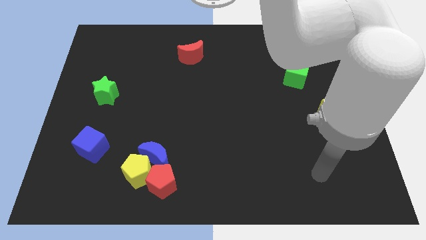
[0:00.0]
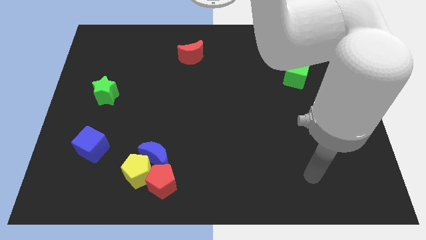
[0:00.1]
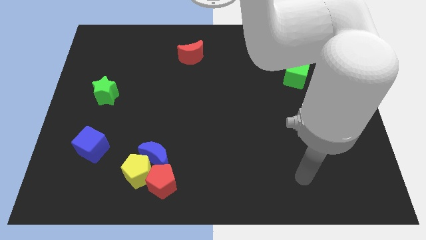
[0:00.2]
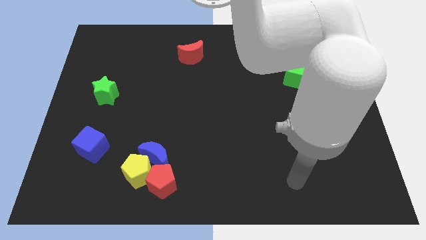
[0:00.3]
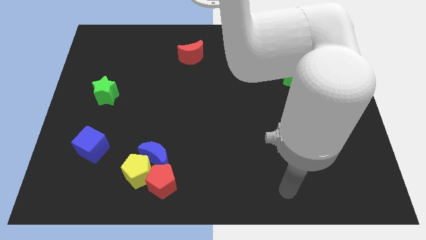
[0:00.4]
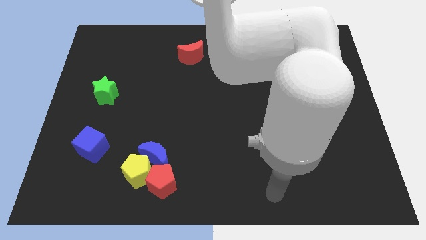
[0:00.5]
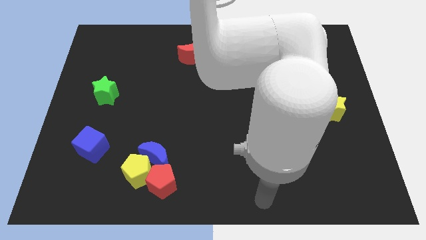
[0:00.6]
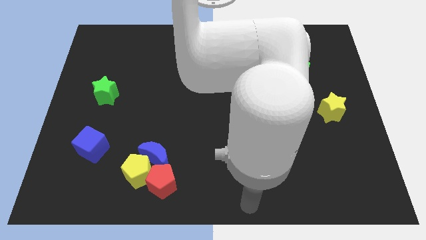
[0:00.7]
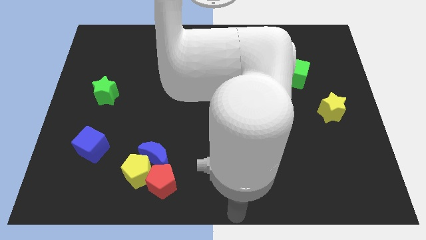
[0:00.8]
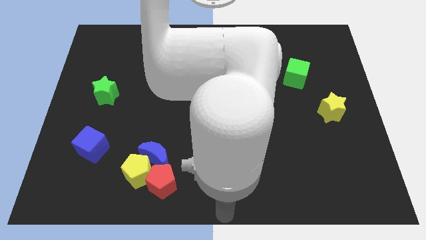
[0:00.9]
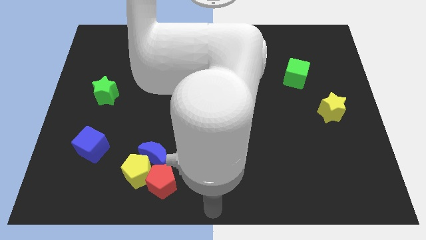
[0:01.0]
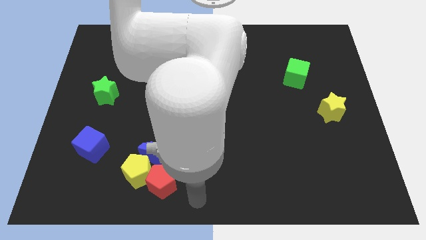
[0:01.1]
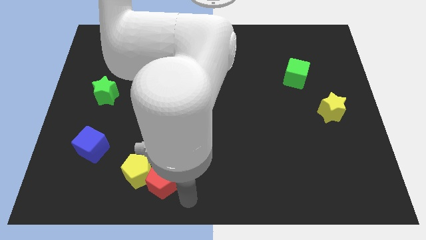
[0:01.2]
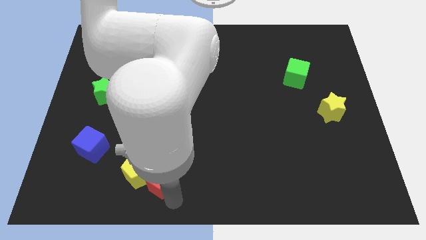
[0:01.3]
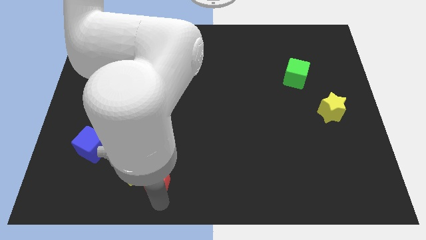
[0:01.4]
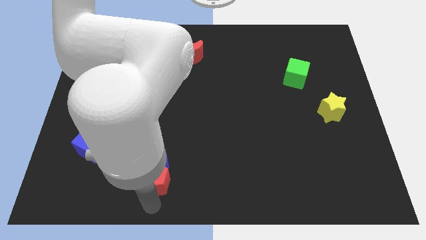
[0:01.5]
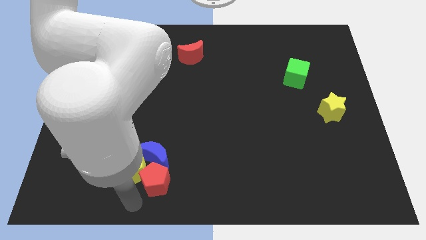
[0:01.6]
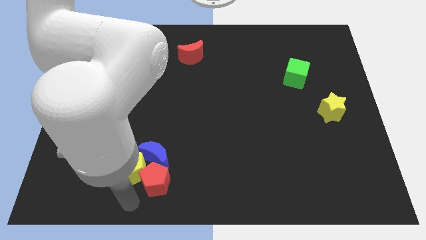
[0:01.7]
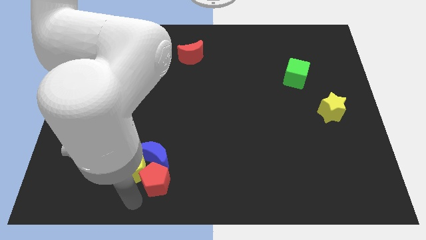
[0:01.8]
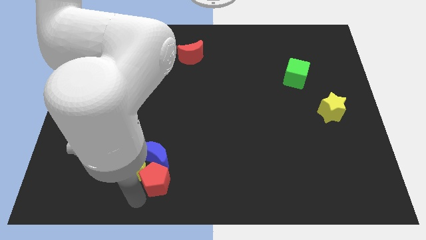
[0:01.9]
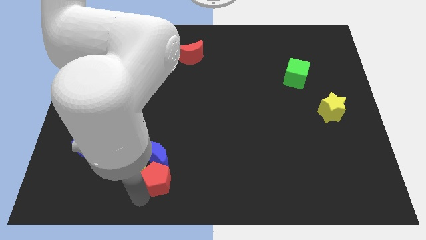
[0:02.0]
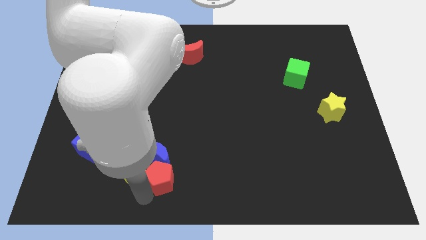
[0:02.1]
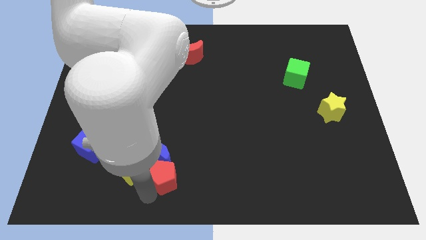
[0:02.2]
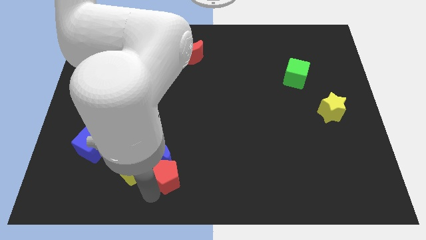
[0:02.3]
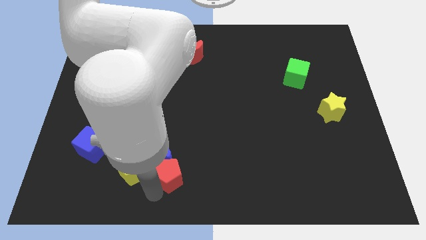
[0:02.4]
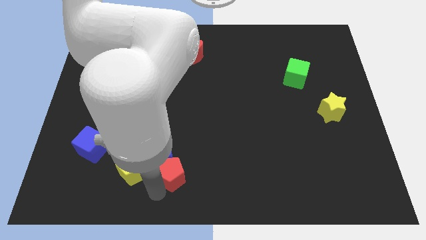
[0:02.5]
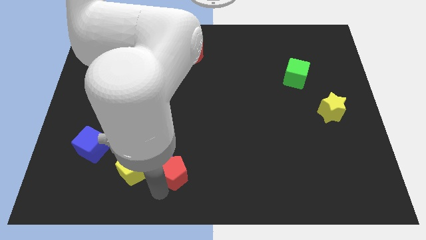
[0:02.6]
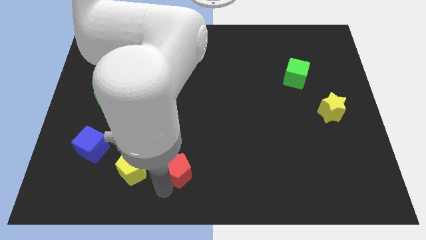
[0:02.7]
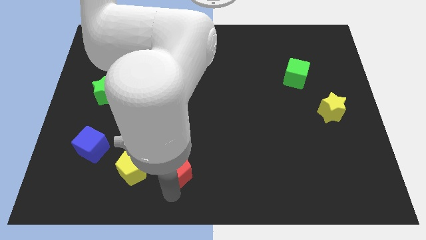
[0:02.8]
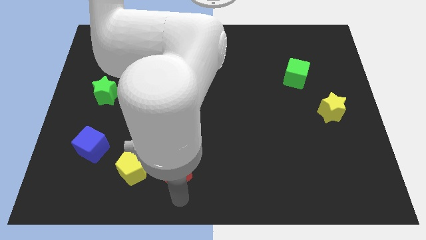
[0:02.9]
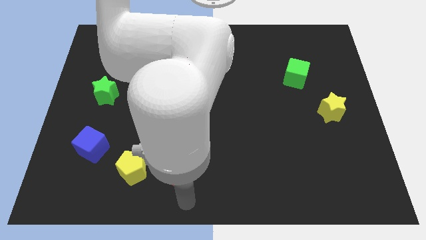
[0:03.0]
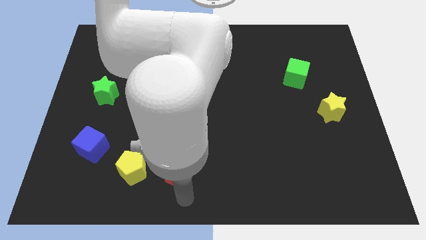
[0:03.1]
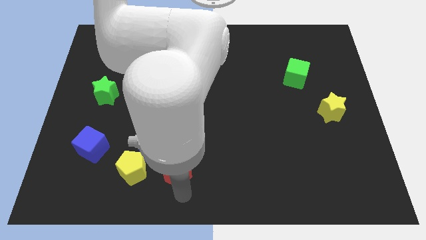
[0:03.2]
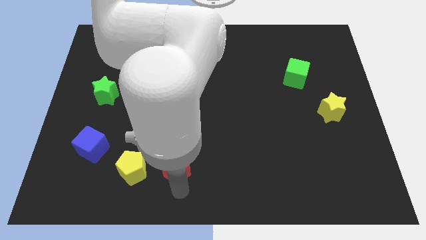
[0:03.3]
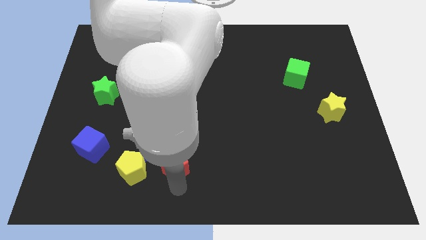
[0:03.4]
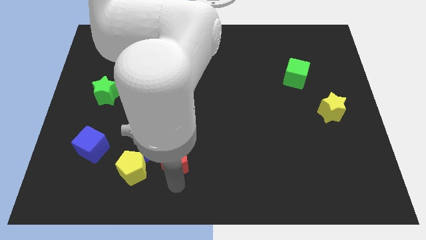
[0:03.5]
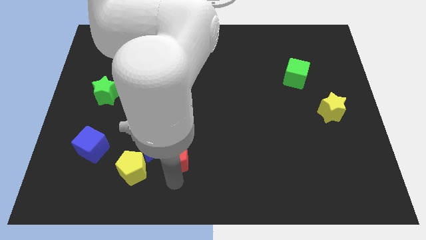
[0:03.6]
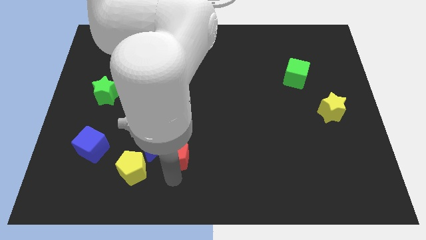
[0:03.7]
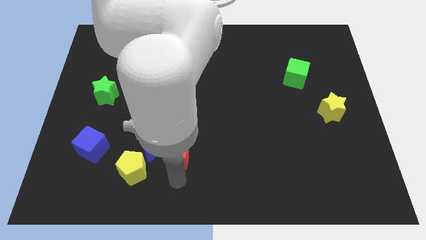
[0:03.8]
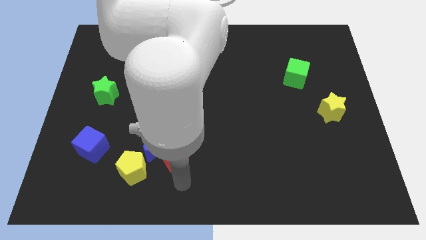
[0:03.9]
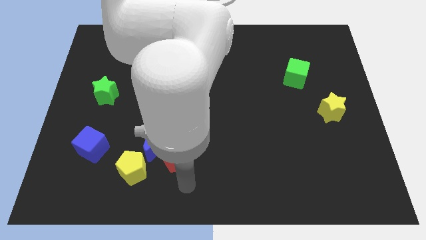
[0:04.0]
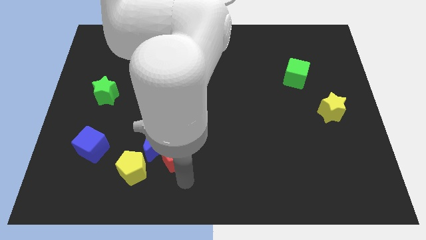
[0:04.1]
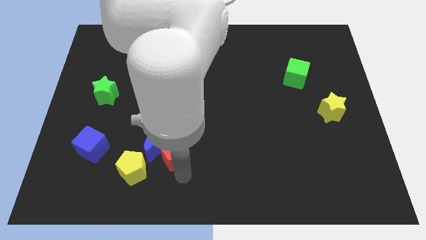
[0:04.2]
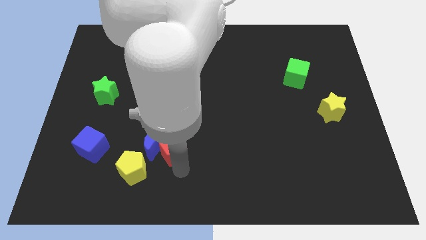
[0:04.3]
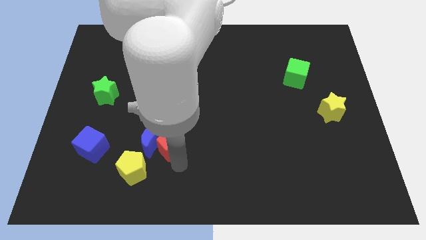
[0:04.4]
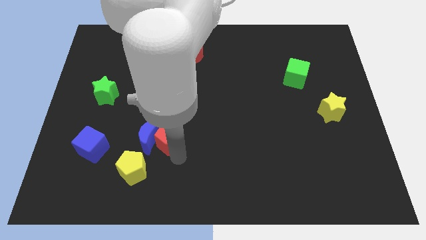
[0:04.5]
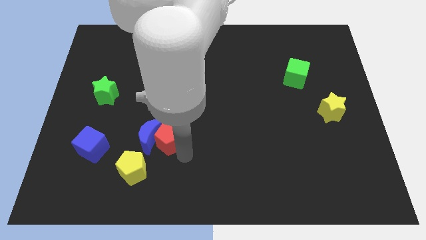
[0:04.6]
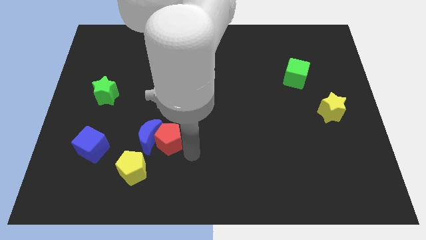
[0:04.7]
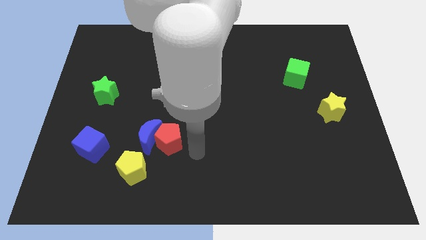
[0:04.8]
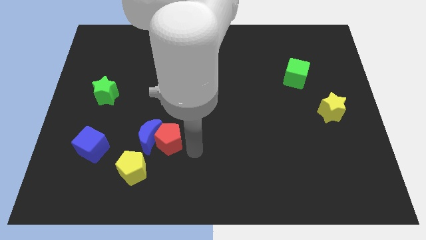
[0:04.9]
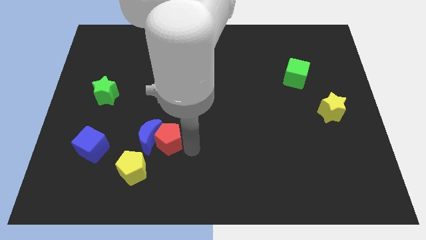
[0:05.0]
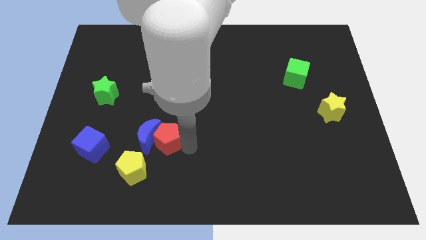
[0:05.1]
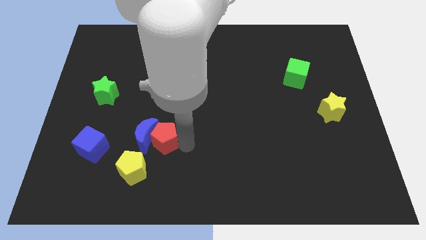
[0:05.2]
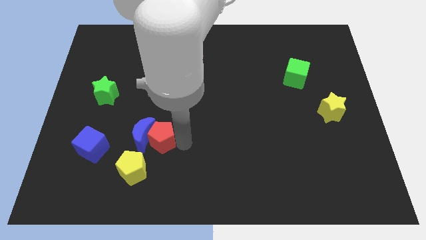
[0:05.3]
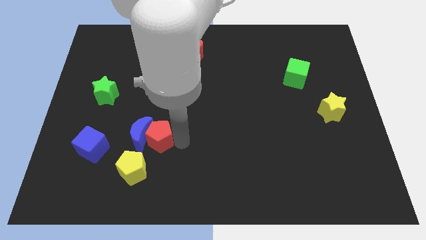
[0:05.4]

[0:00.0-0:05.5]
slightly push the red pentagon upwards and to the left diagonally

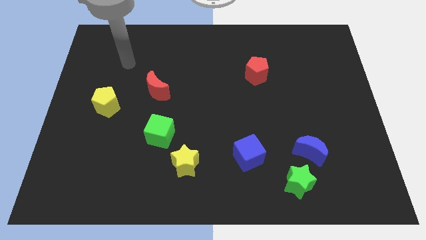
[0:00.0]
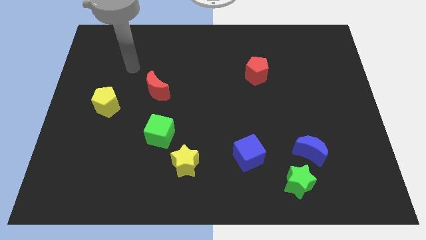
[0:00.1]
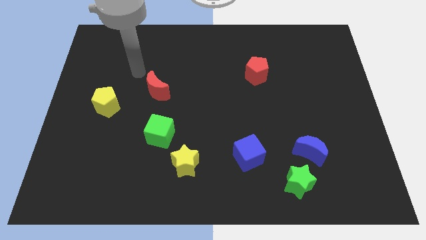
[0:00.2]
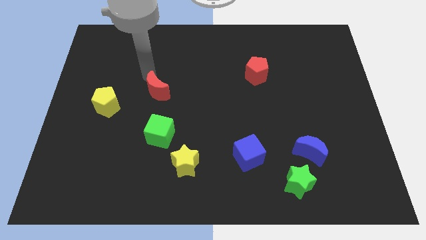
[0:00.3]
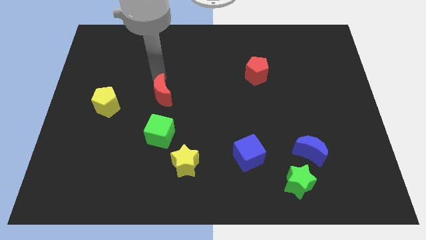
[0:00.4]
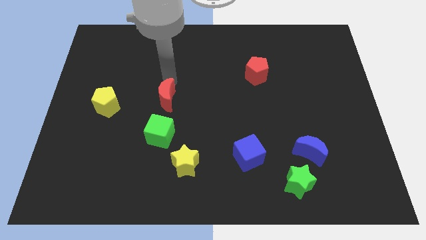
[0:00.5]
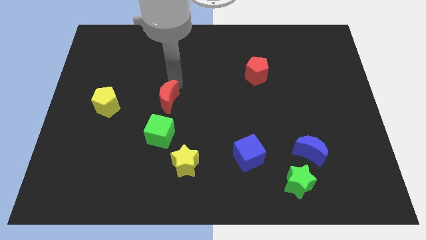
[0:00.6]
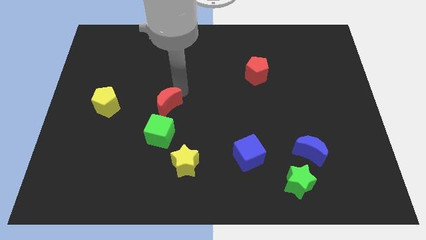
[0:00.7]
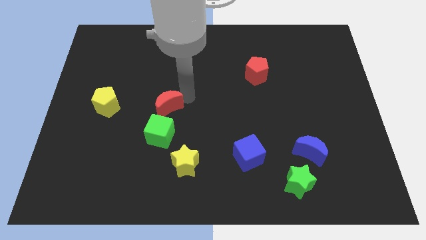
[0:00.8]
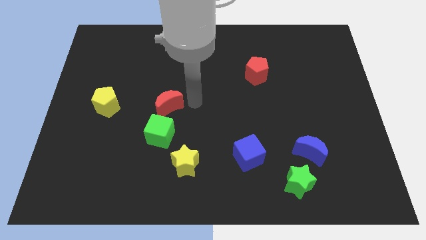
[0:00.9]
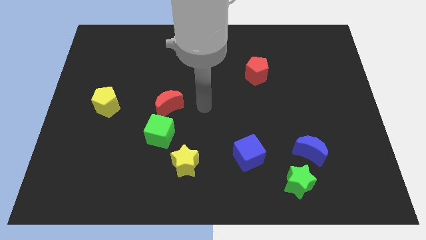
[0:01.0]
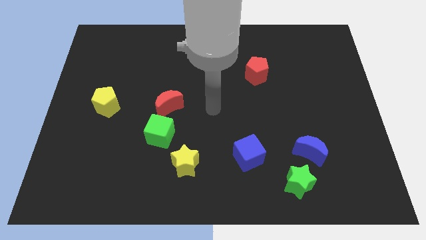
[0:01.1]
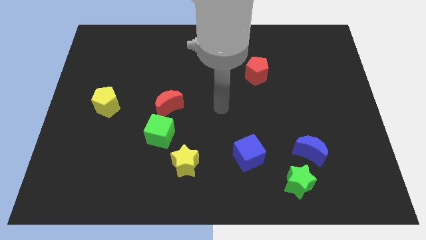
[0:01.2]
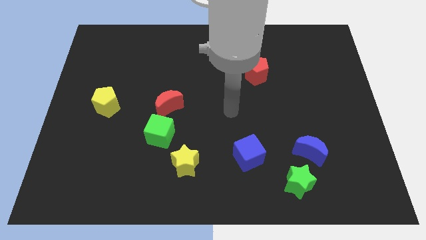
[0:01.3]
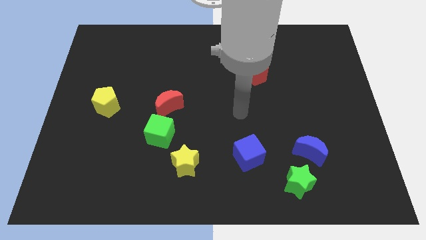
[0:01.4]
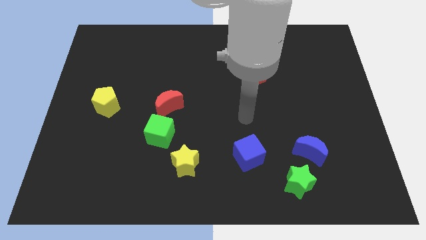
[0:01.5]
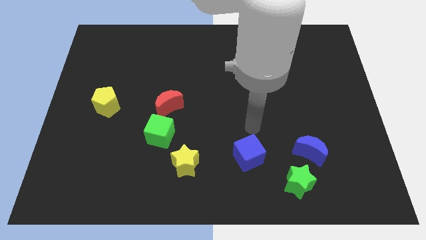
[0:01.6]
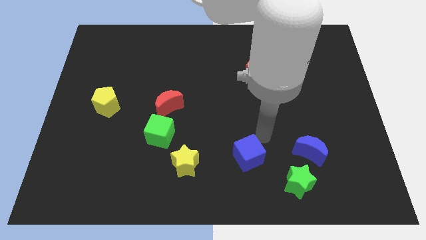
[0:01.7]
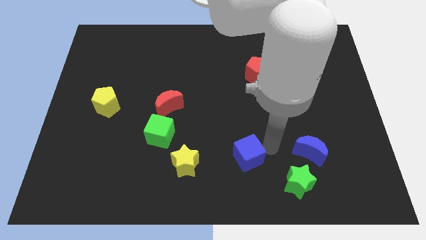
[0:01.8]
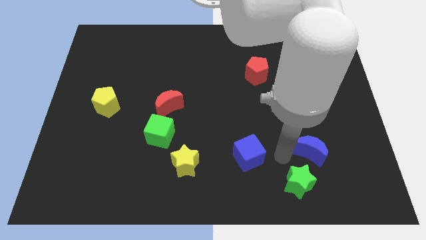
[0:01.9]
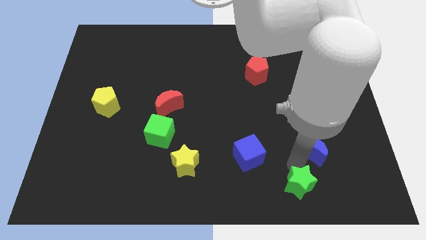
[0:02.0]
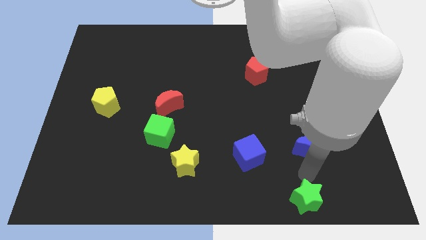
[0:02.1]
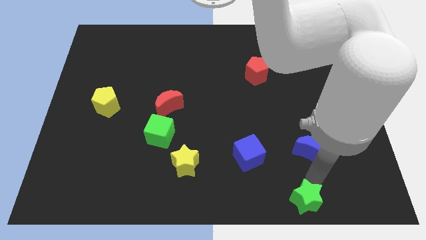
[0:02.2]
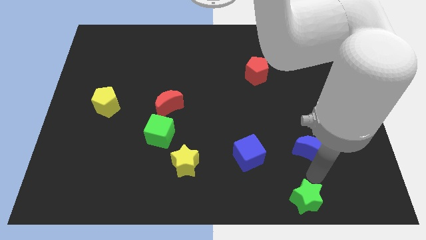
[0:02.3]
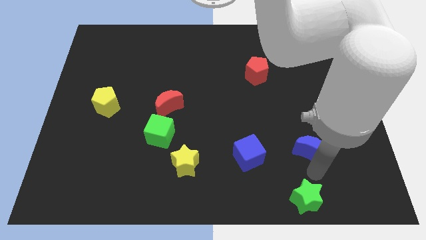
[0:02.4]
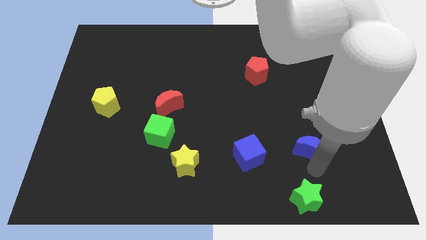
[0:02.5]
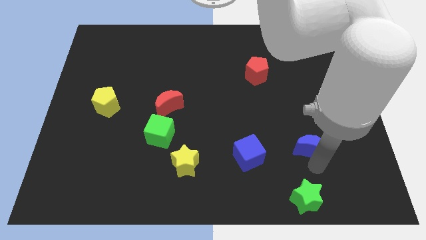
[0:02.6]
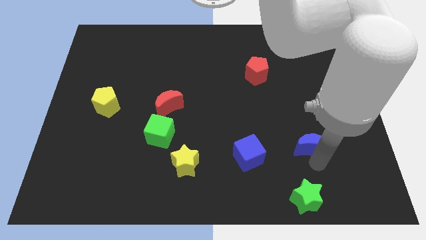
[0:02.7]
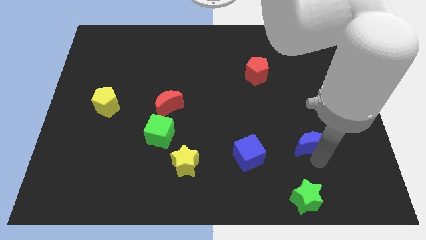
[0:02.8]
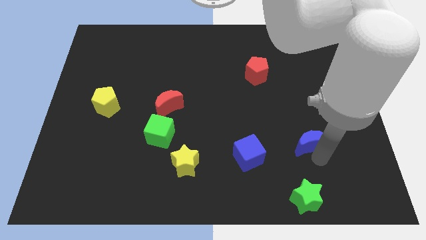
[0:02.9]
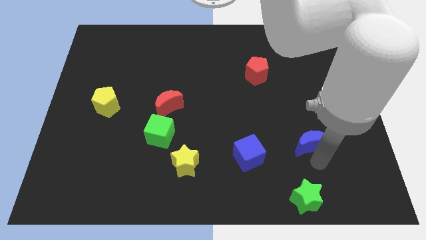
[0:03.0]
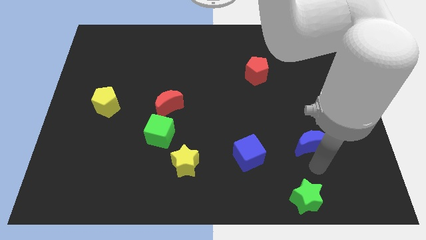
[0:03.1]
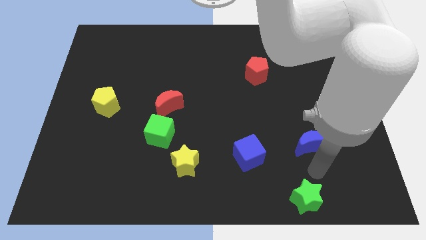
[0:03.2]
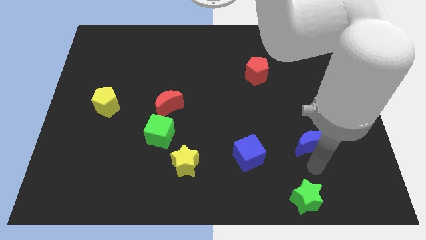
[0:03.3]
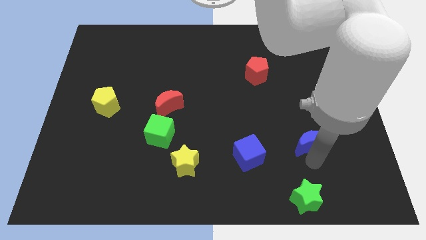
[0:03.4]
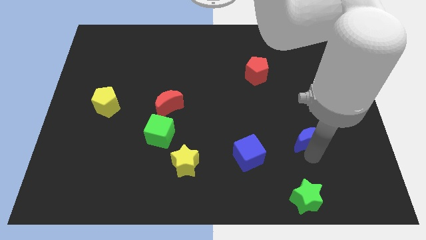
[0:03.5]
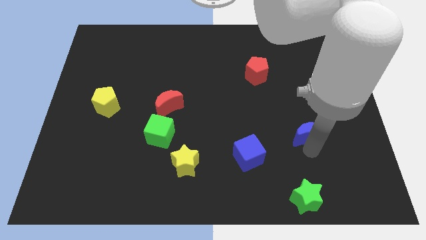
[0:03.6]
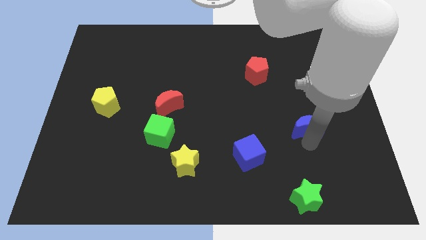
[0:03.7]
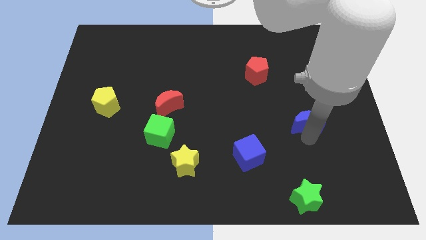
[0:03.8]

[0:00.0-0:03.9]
slightly move the blue moon upwards
